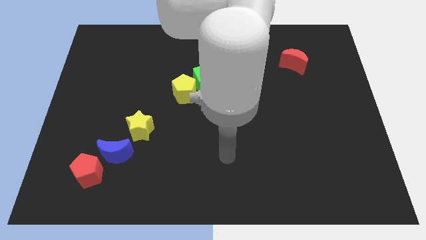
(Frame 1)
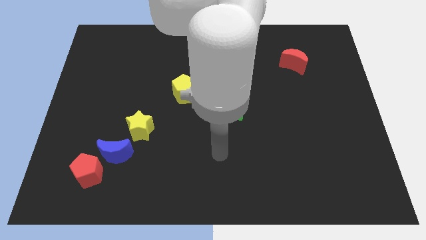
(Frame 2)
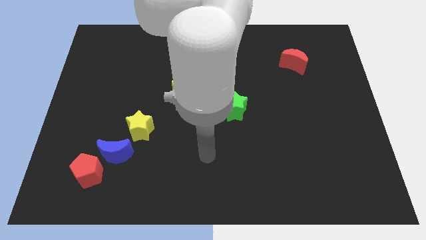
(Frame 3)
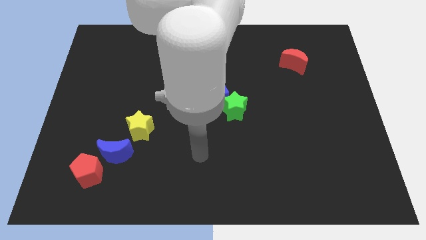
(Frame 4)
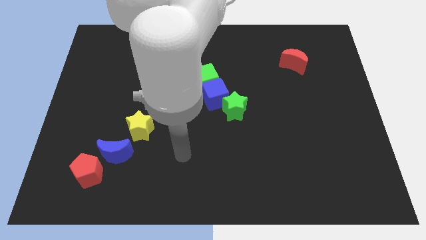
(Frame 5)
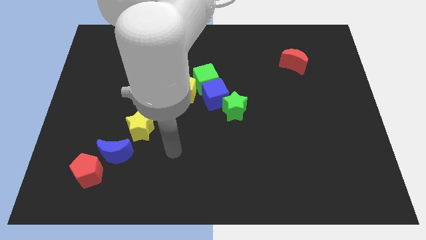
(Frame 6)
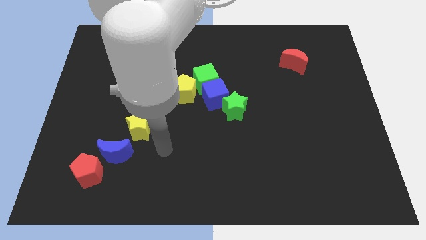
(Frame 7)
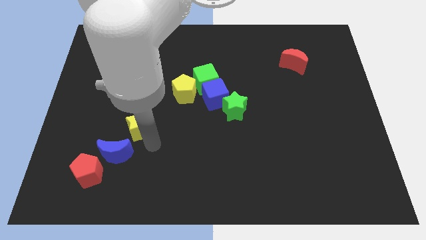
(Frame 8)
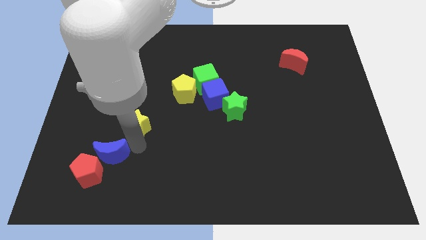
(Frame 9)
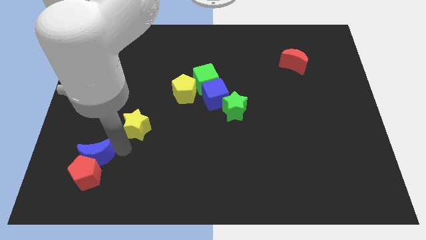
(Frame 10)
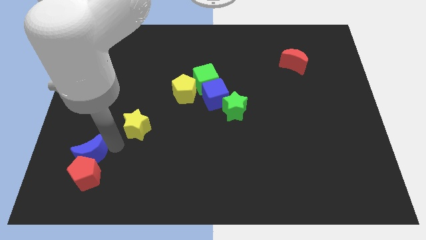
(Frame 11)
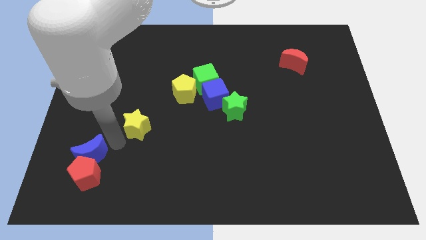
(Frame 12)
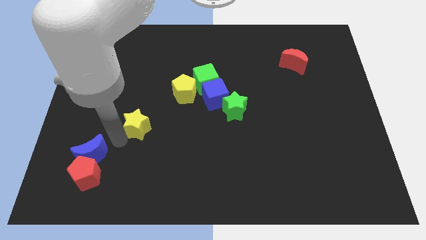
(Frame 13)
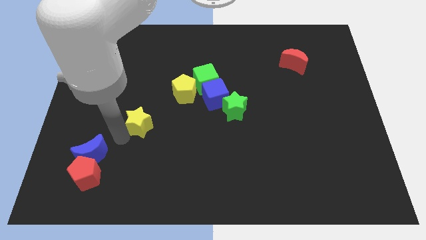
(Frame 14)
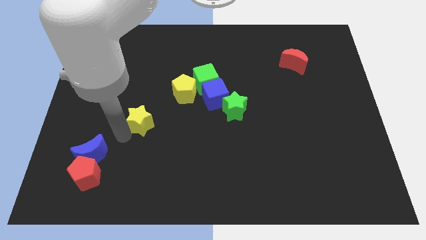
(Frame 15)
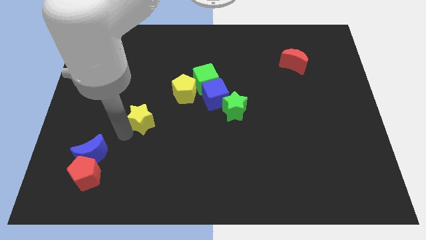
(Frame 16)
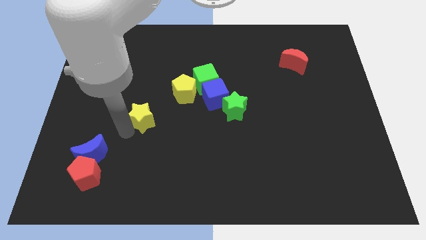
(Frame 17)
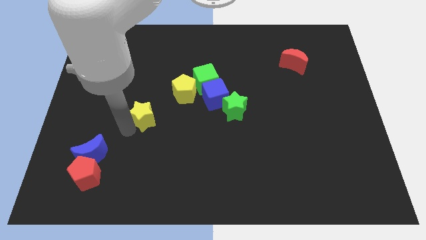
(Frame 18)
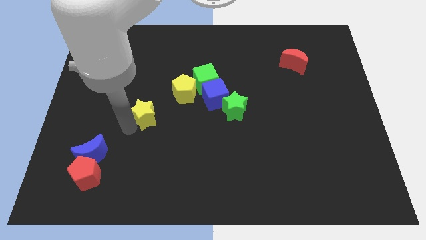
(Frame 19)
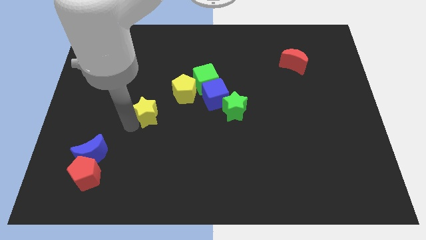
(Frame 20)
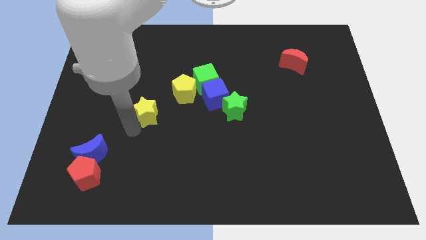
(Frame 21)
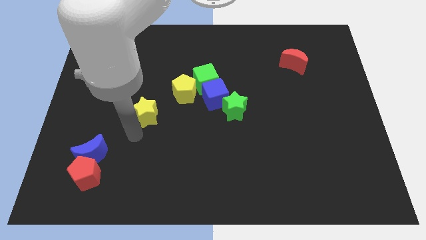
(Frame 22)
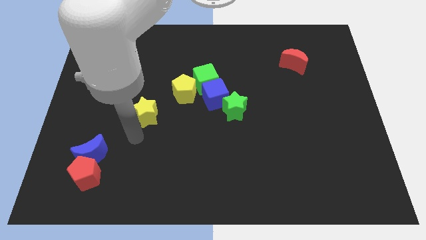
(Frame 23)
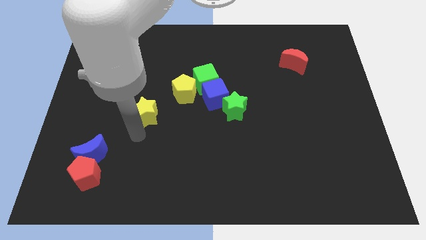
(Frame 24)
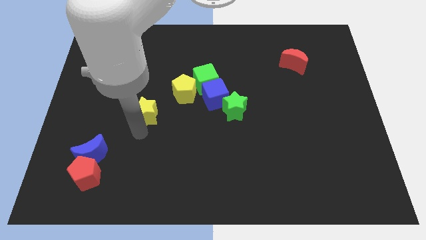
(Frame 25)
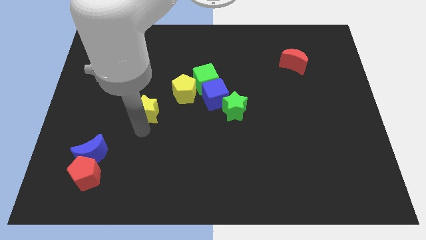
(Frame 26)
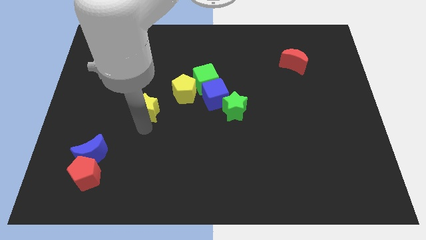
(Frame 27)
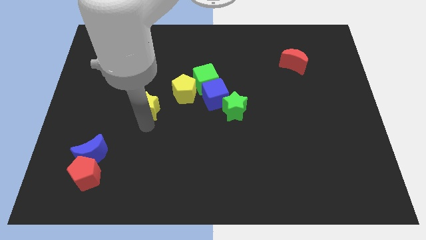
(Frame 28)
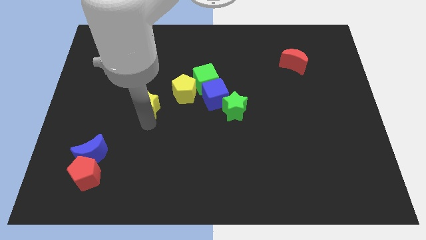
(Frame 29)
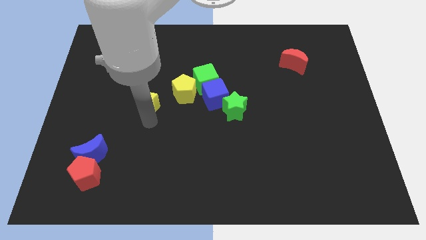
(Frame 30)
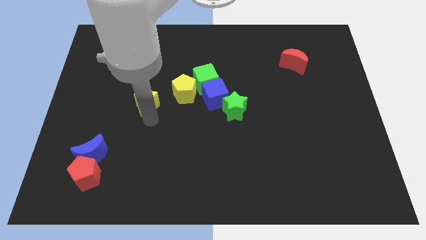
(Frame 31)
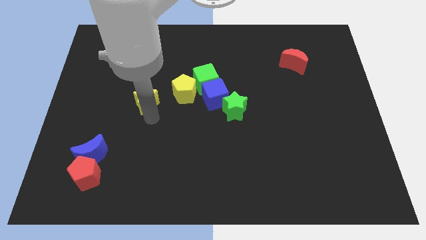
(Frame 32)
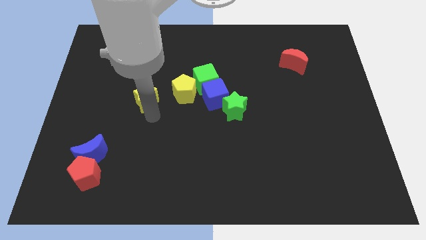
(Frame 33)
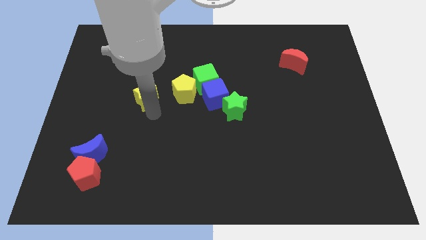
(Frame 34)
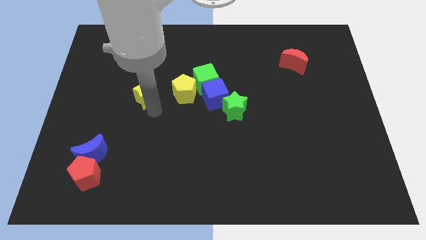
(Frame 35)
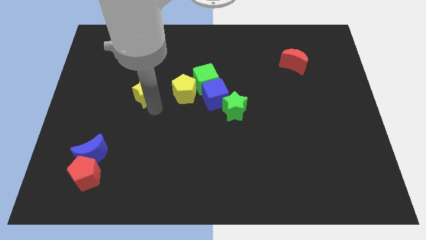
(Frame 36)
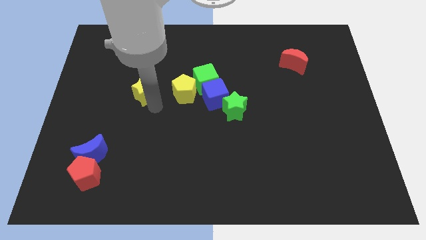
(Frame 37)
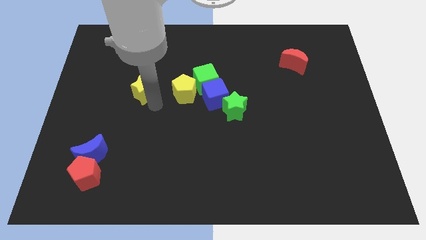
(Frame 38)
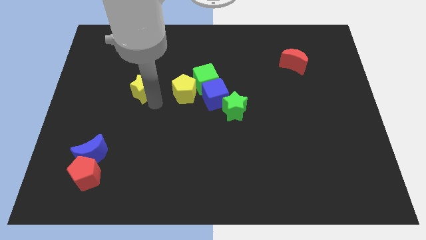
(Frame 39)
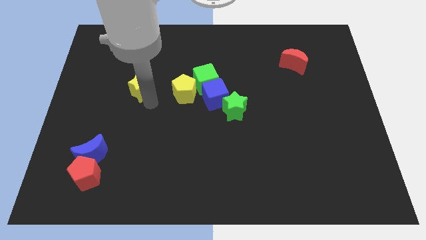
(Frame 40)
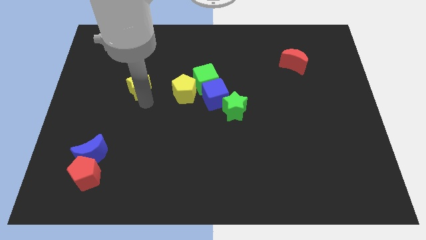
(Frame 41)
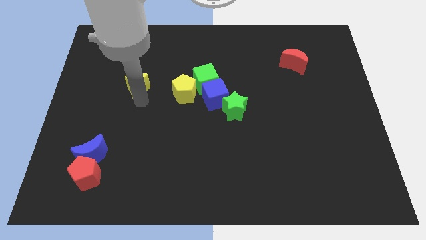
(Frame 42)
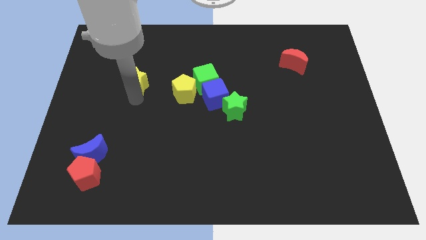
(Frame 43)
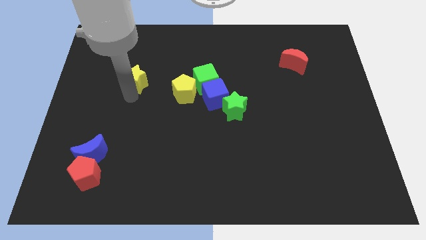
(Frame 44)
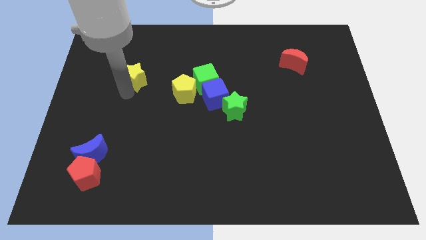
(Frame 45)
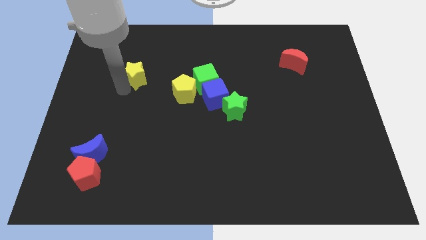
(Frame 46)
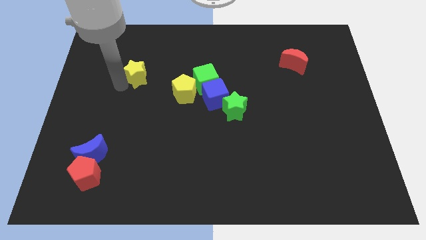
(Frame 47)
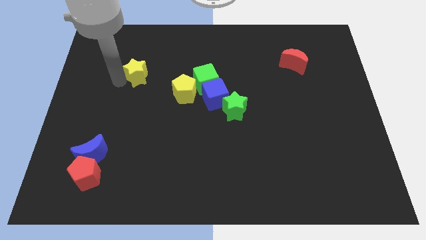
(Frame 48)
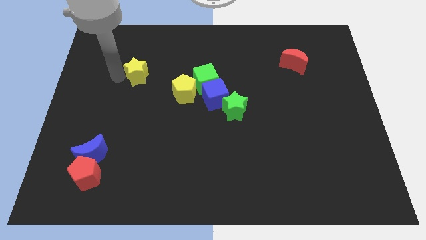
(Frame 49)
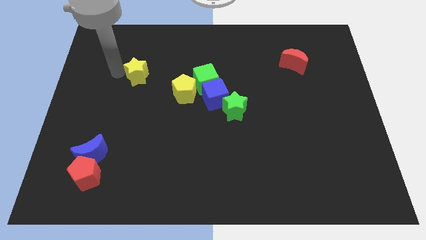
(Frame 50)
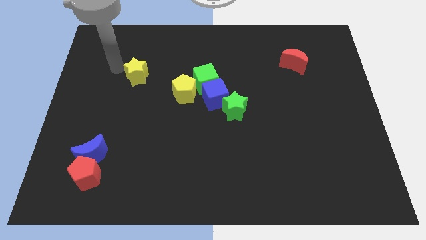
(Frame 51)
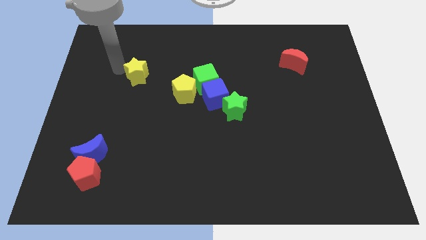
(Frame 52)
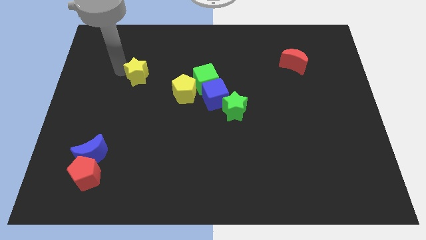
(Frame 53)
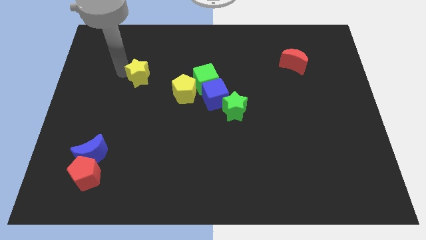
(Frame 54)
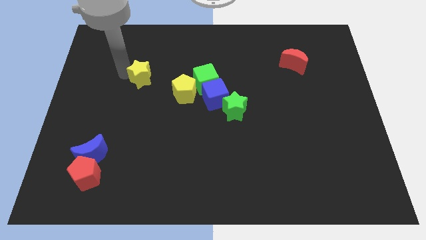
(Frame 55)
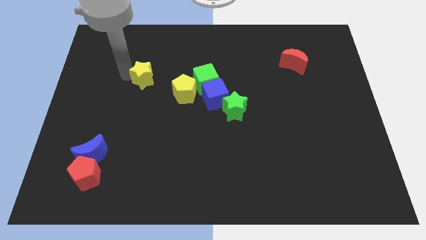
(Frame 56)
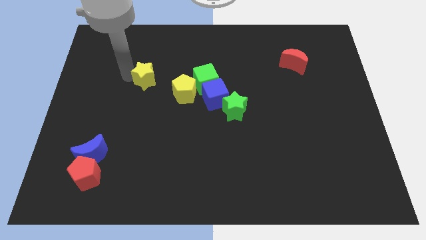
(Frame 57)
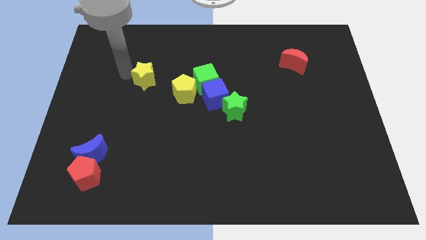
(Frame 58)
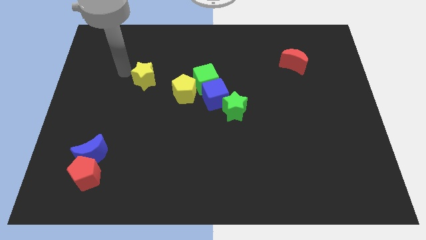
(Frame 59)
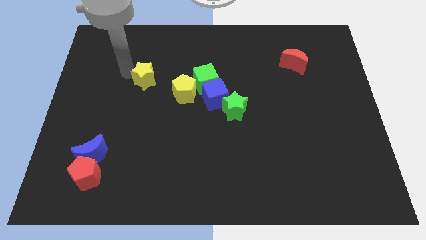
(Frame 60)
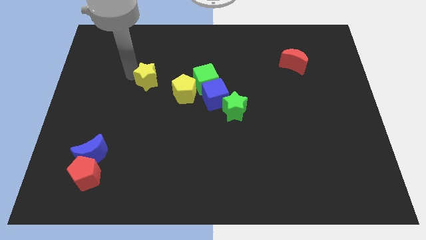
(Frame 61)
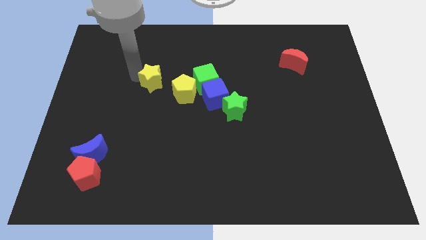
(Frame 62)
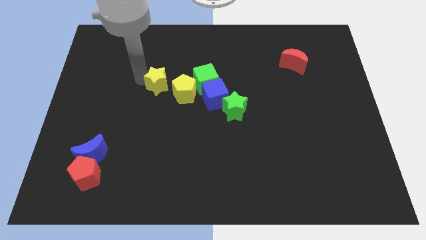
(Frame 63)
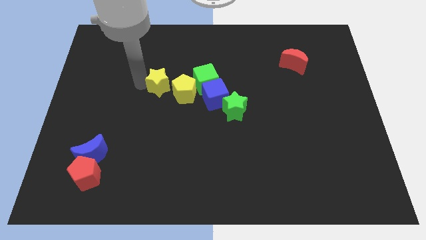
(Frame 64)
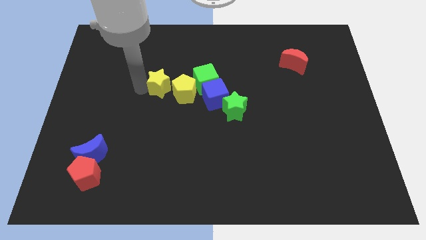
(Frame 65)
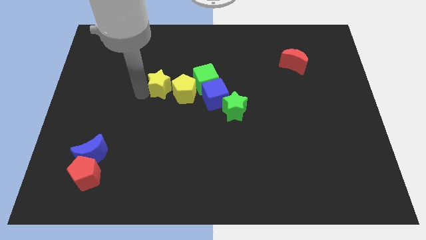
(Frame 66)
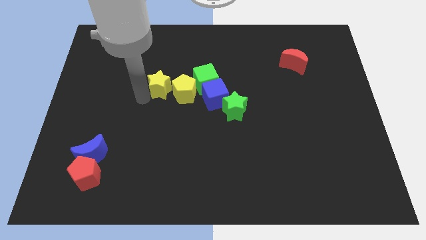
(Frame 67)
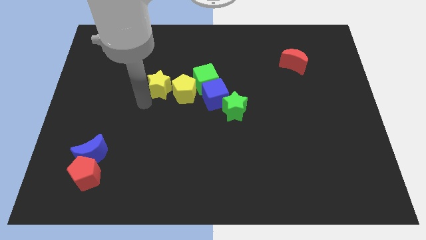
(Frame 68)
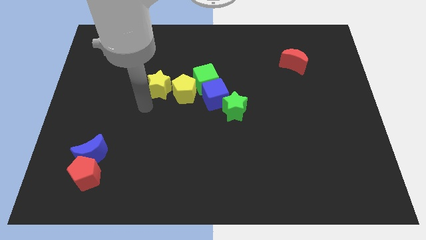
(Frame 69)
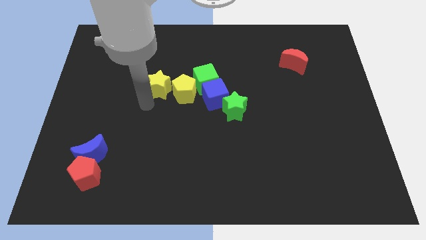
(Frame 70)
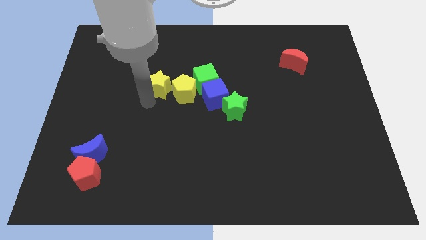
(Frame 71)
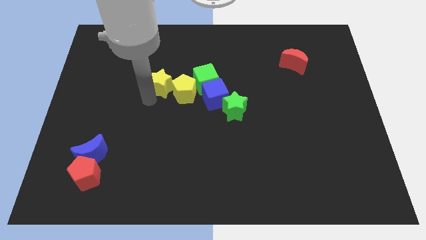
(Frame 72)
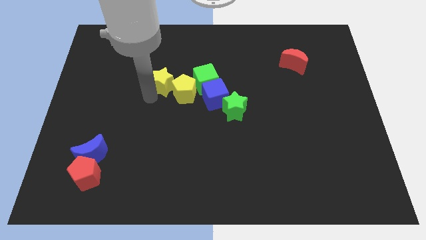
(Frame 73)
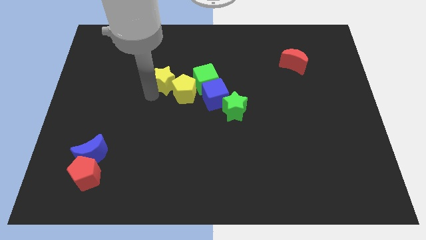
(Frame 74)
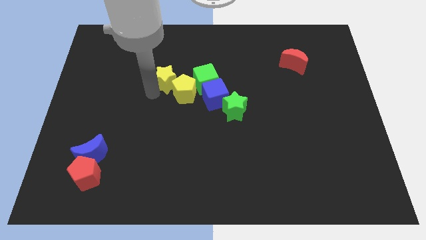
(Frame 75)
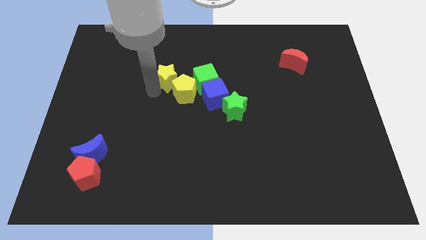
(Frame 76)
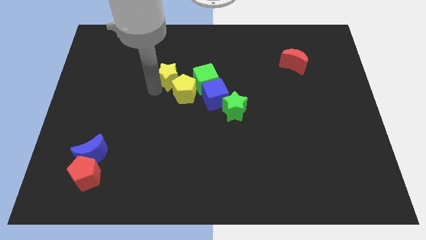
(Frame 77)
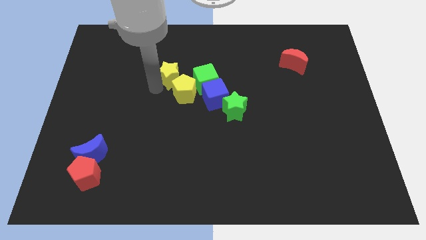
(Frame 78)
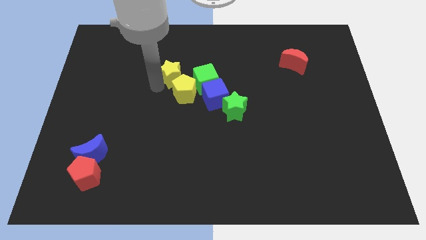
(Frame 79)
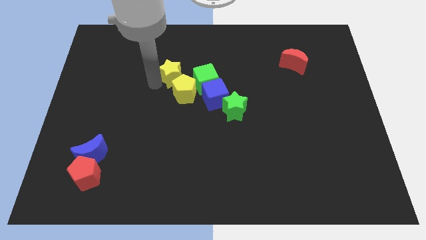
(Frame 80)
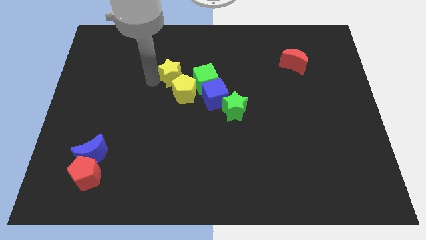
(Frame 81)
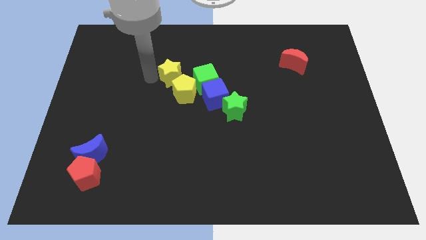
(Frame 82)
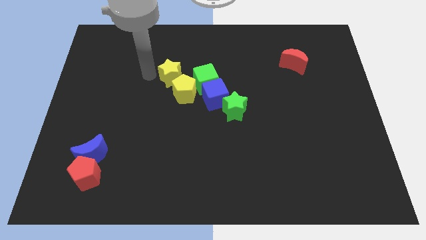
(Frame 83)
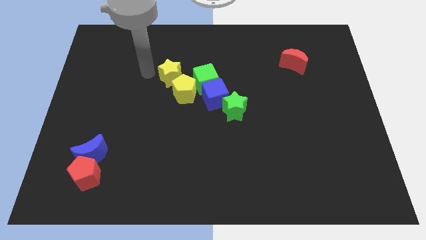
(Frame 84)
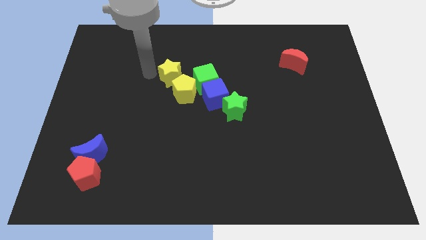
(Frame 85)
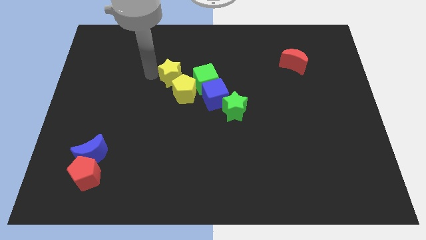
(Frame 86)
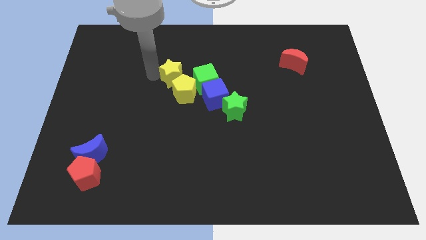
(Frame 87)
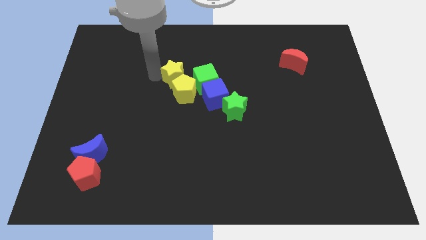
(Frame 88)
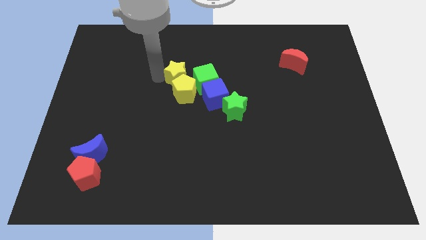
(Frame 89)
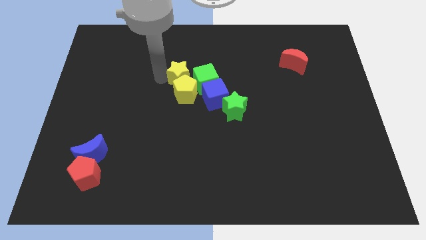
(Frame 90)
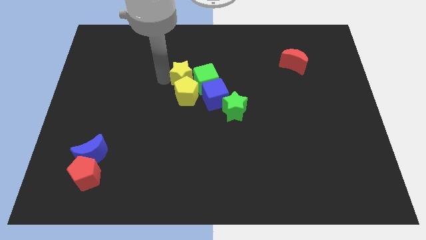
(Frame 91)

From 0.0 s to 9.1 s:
move the yellow star next to the green cube
